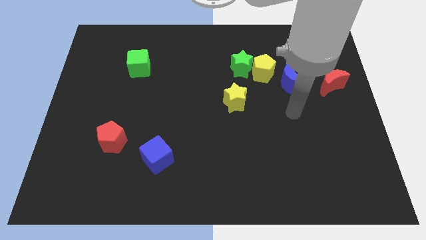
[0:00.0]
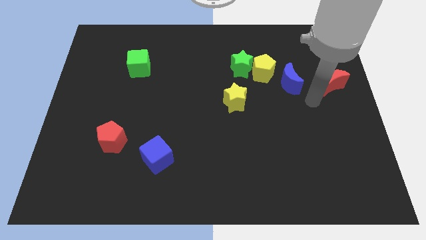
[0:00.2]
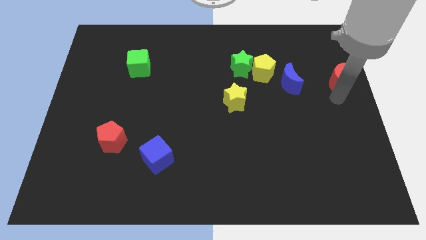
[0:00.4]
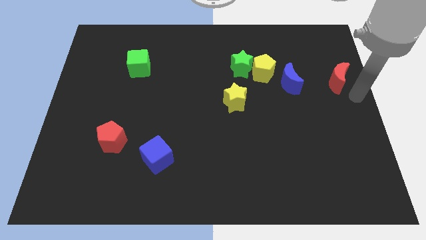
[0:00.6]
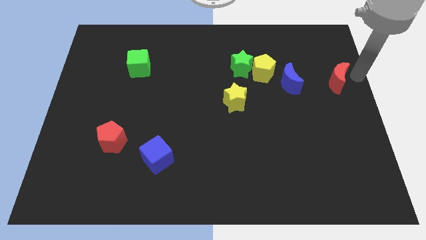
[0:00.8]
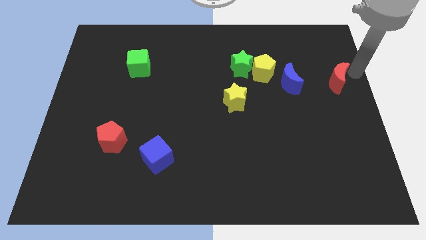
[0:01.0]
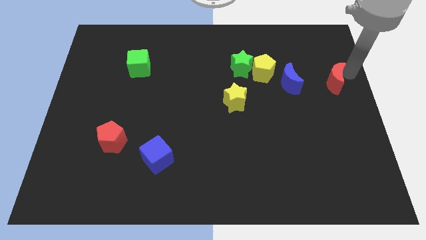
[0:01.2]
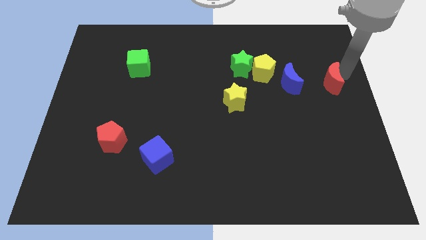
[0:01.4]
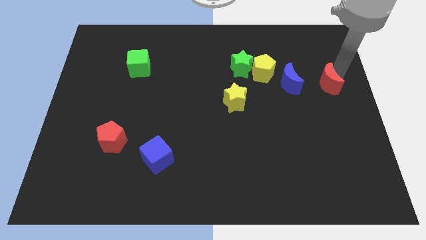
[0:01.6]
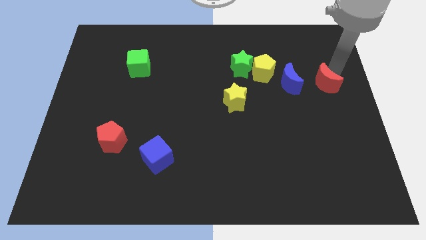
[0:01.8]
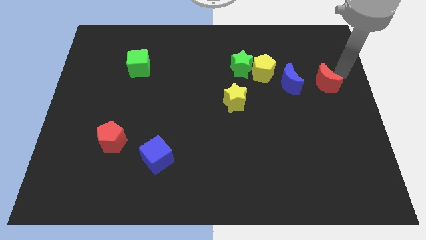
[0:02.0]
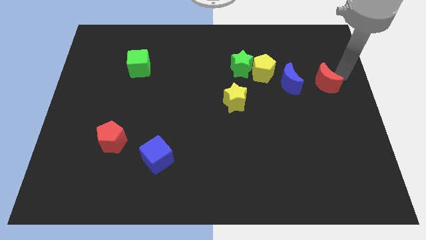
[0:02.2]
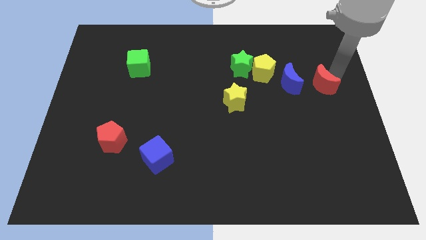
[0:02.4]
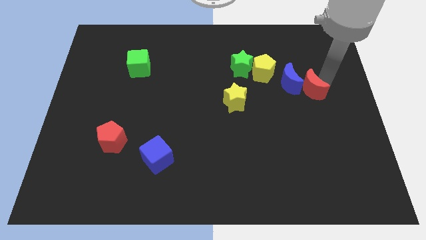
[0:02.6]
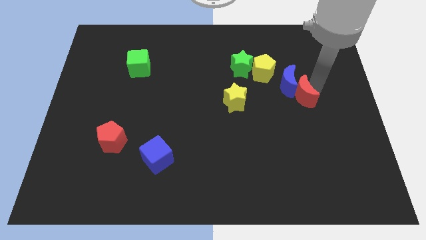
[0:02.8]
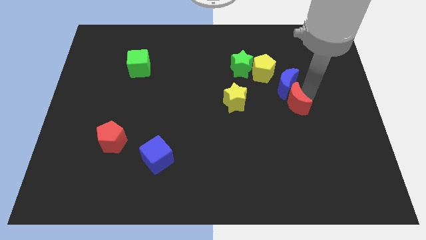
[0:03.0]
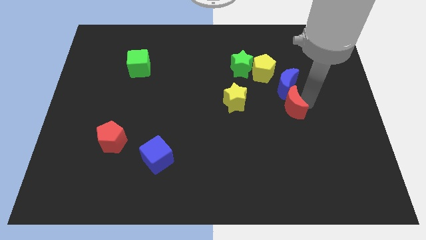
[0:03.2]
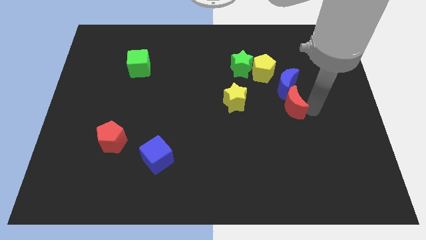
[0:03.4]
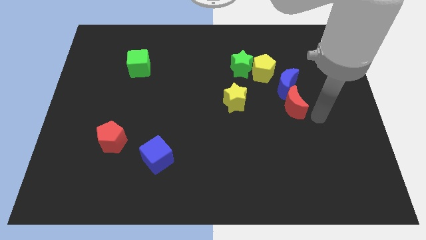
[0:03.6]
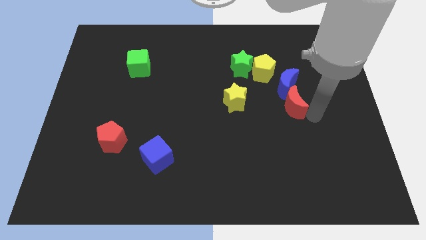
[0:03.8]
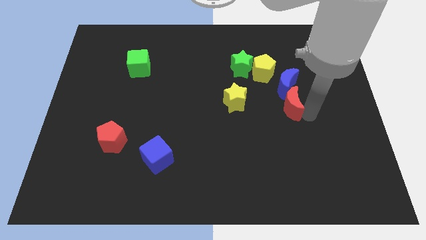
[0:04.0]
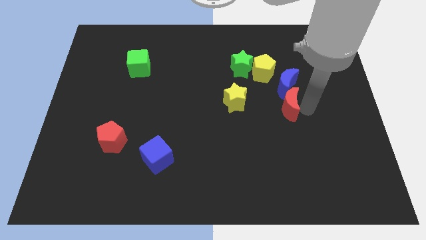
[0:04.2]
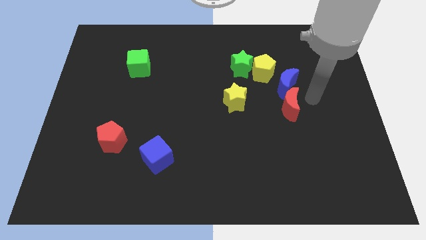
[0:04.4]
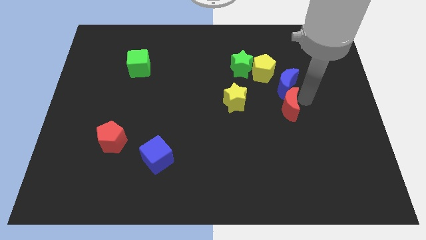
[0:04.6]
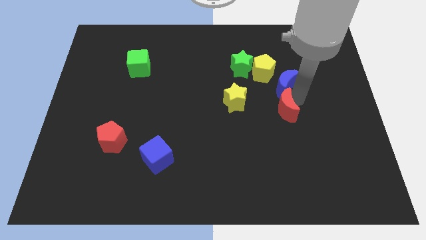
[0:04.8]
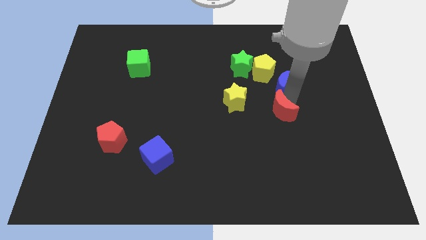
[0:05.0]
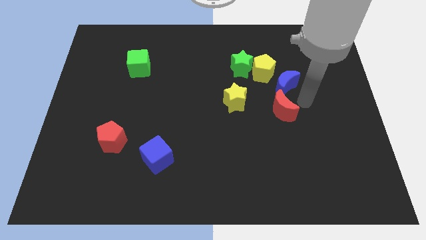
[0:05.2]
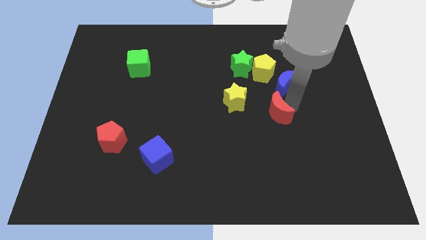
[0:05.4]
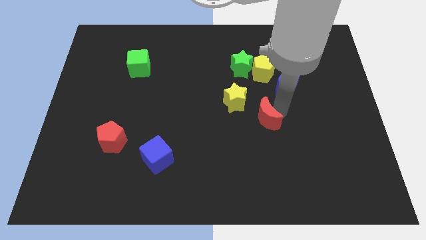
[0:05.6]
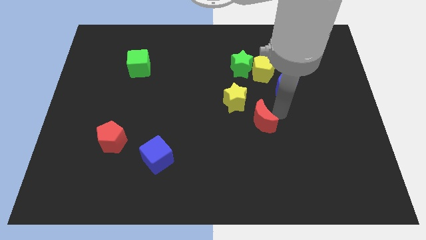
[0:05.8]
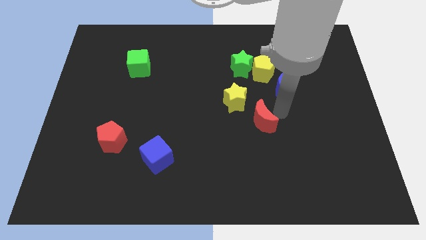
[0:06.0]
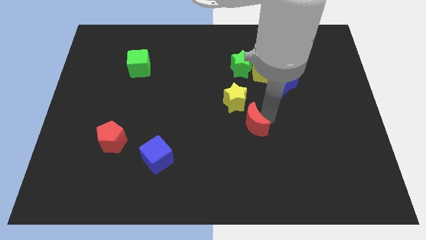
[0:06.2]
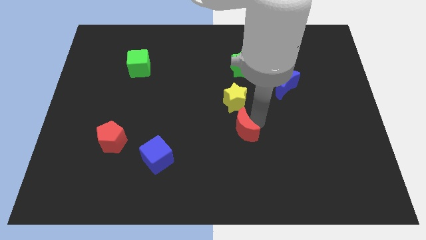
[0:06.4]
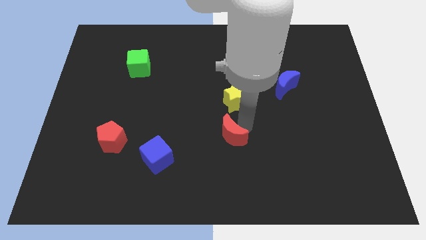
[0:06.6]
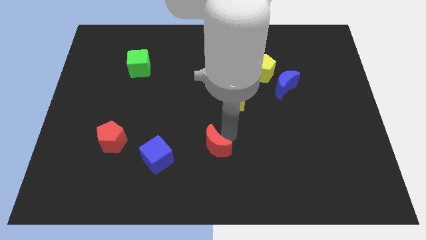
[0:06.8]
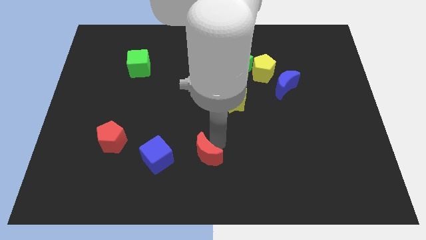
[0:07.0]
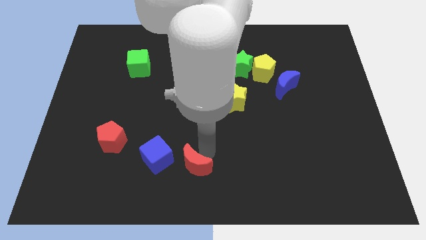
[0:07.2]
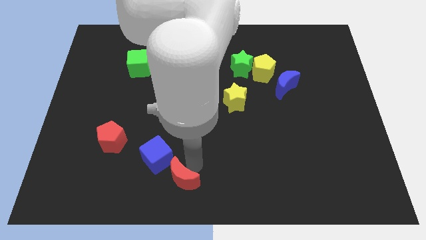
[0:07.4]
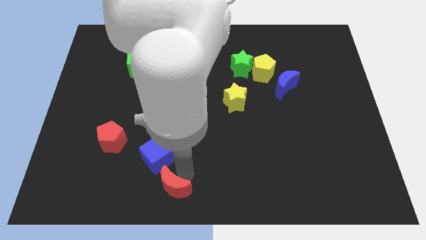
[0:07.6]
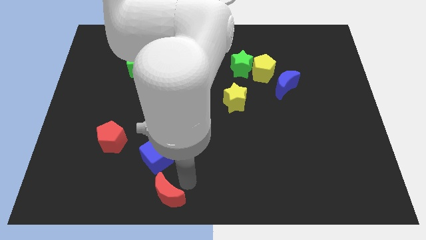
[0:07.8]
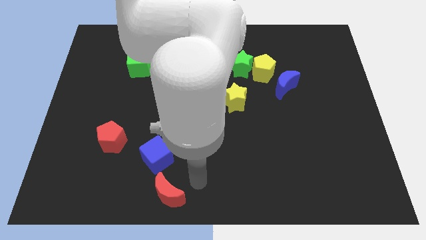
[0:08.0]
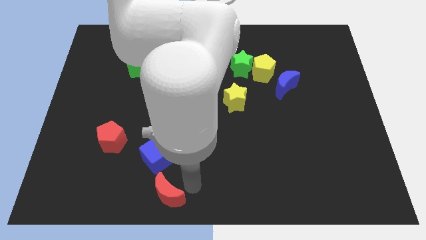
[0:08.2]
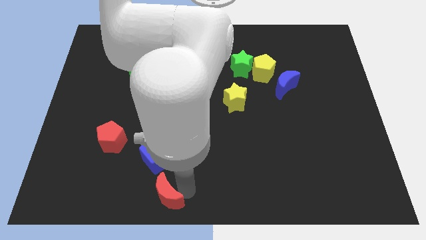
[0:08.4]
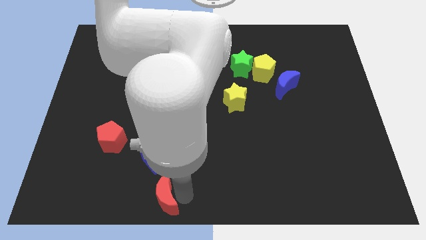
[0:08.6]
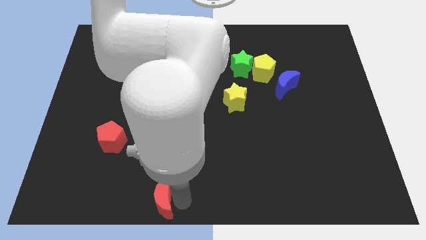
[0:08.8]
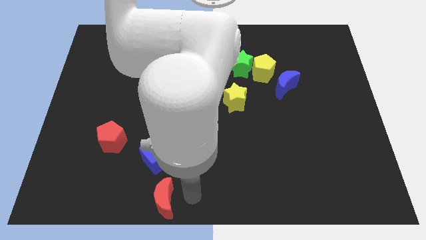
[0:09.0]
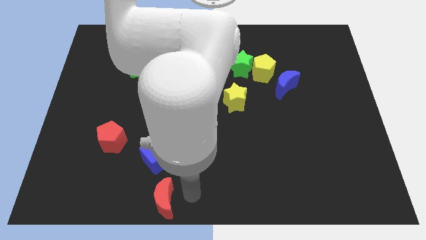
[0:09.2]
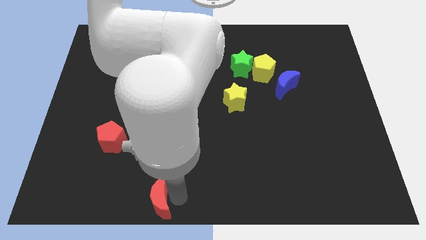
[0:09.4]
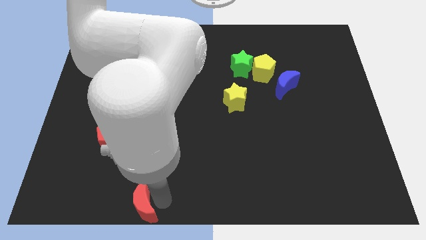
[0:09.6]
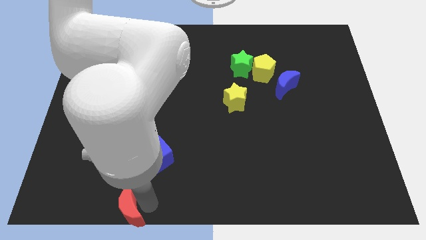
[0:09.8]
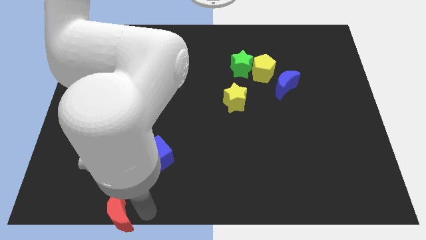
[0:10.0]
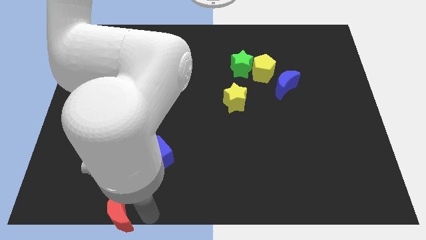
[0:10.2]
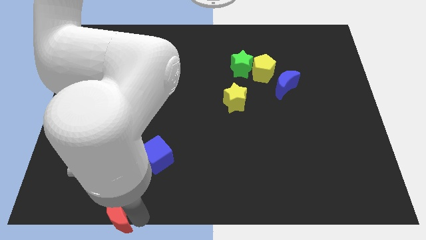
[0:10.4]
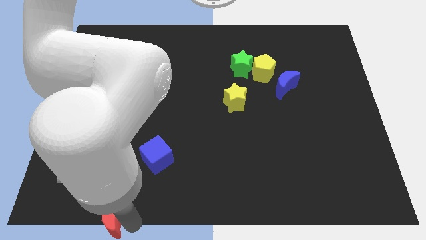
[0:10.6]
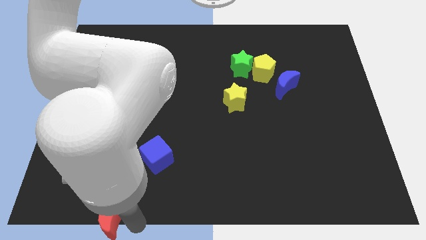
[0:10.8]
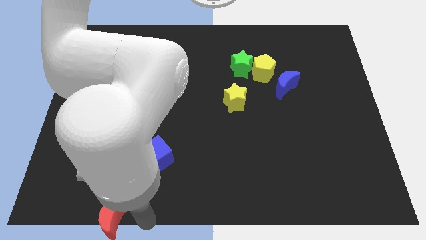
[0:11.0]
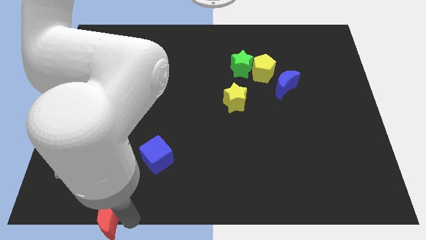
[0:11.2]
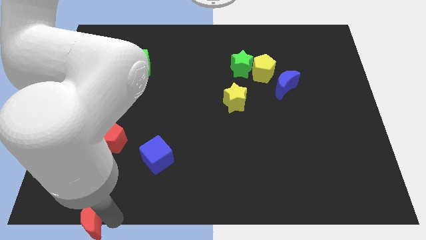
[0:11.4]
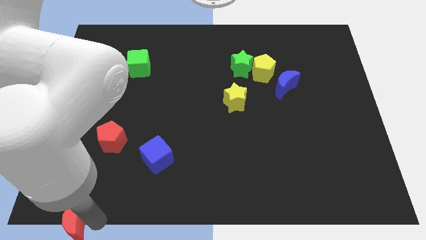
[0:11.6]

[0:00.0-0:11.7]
move the red moon to the bottom left of the board

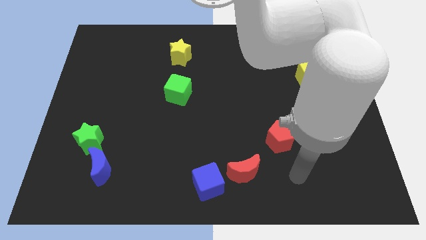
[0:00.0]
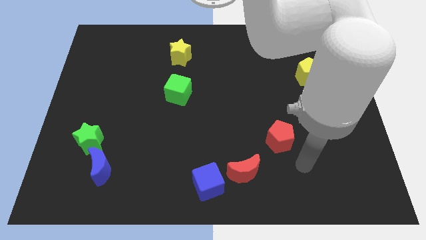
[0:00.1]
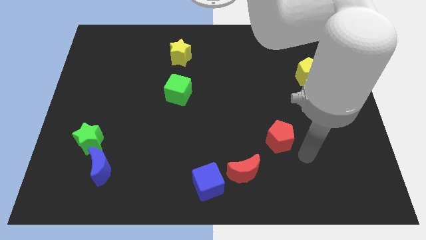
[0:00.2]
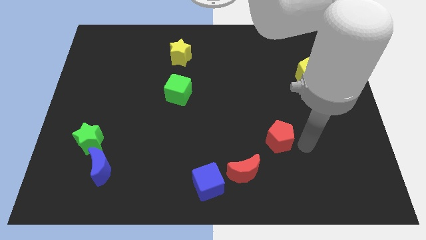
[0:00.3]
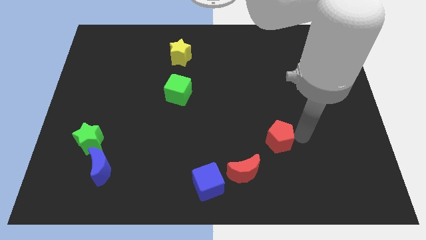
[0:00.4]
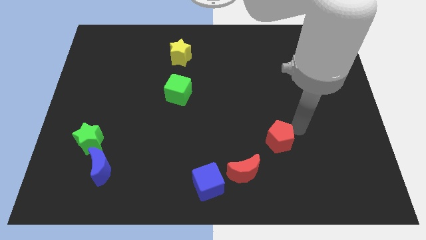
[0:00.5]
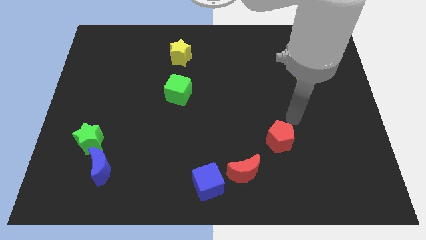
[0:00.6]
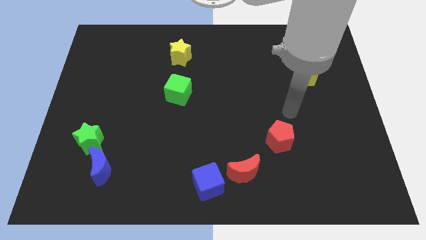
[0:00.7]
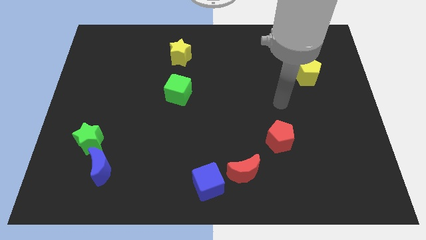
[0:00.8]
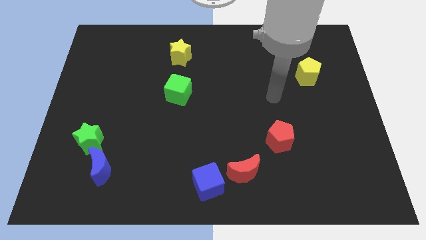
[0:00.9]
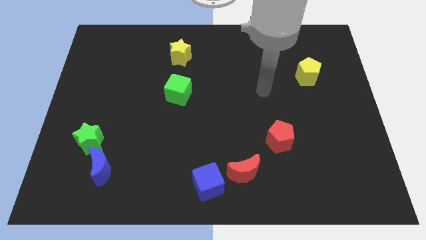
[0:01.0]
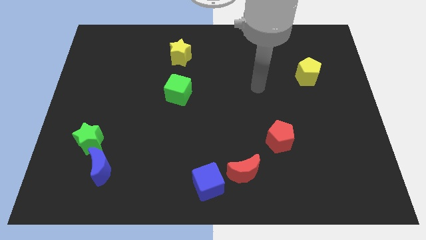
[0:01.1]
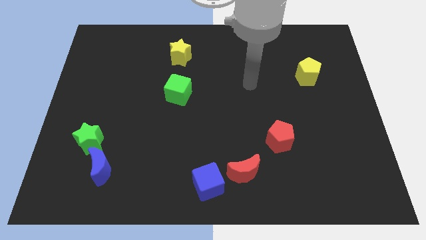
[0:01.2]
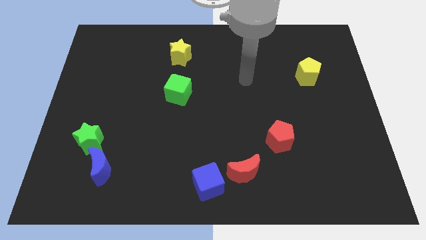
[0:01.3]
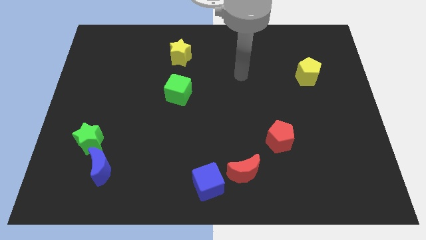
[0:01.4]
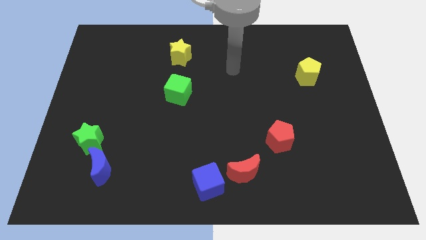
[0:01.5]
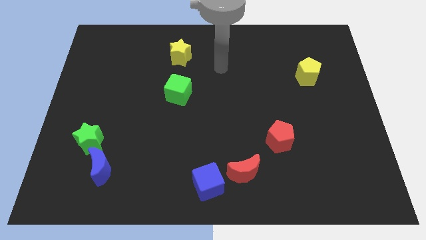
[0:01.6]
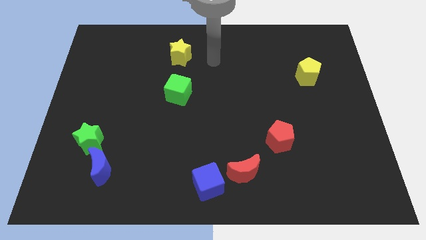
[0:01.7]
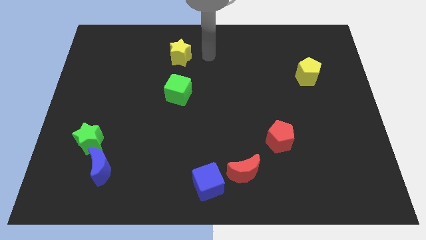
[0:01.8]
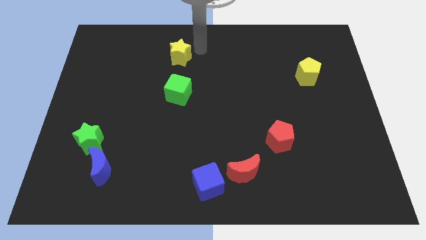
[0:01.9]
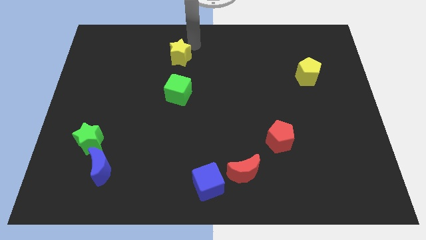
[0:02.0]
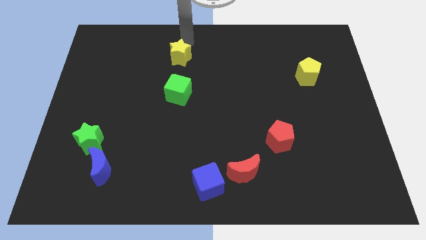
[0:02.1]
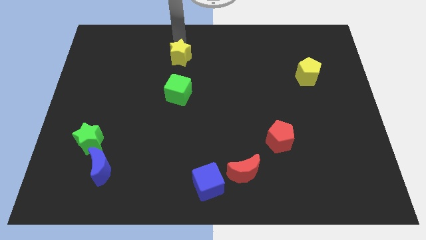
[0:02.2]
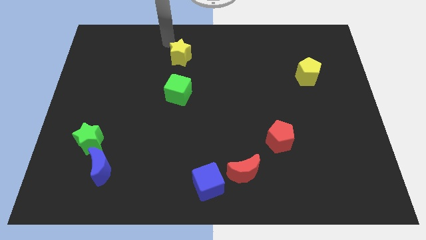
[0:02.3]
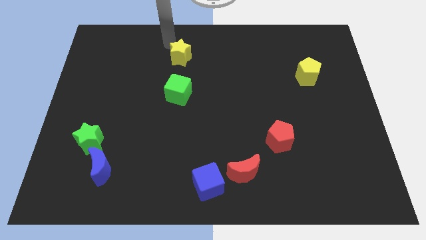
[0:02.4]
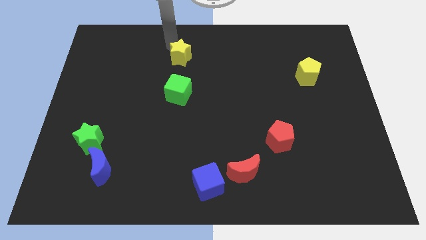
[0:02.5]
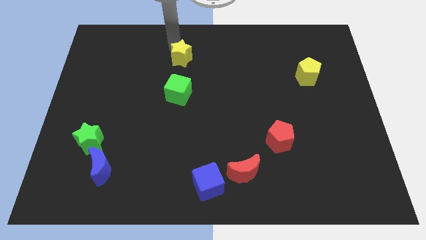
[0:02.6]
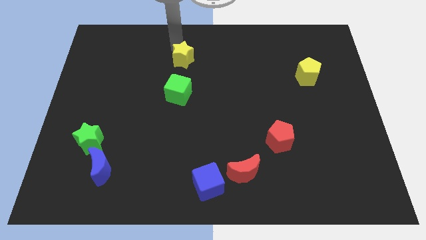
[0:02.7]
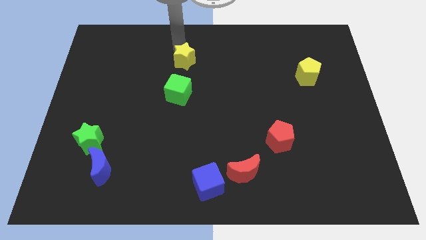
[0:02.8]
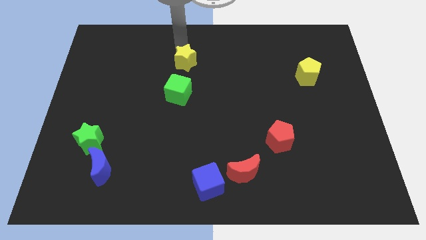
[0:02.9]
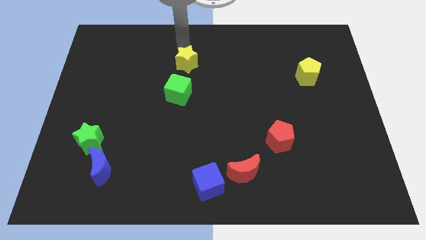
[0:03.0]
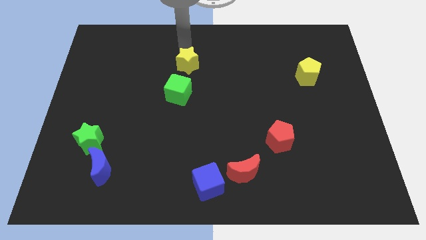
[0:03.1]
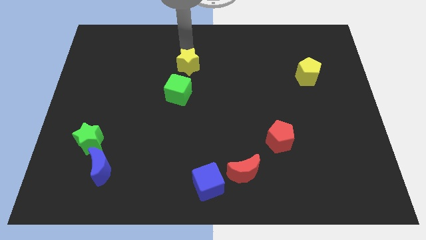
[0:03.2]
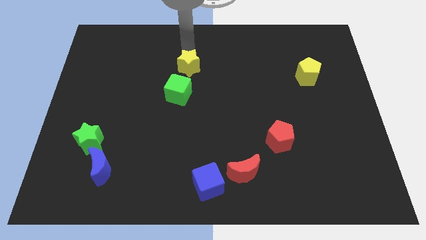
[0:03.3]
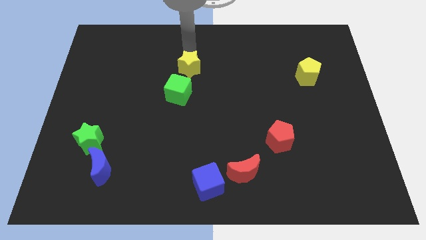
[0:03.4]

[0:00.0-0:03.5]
push the yellow star to the center
